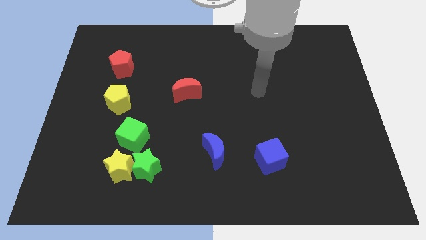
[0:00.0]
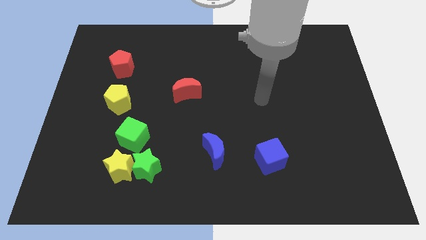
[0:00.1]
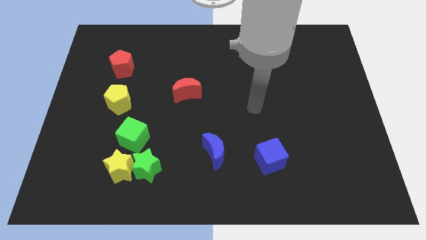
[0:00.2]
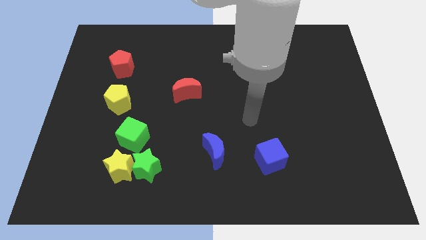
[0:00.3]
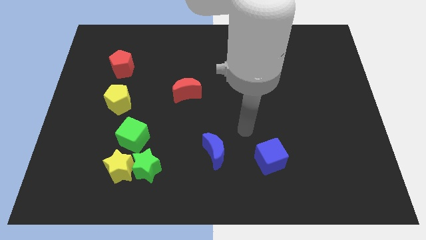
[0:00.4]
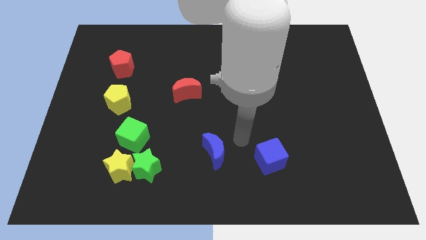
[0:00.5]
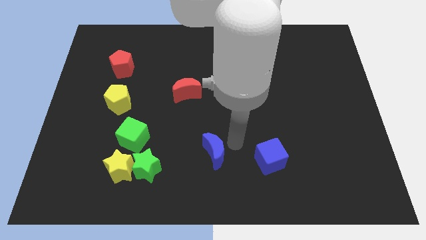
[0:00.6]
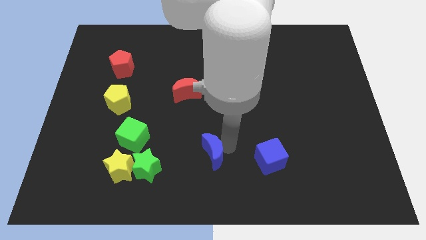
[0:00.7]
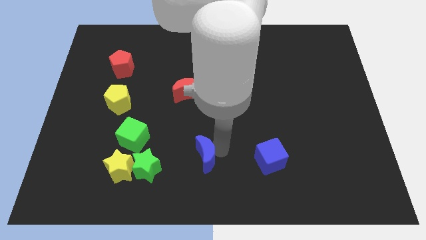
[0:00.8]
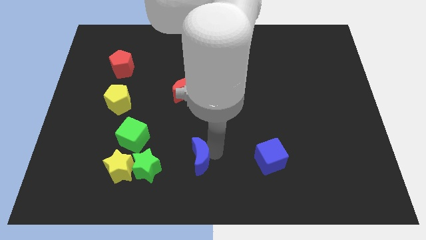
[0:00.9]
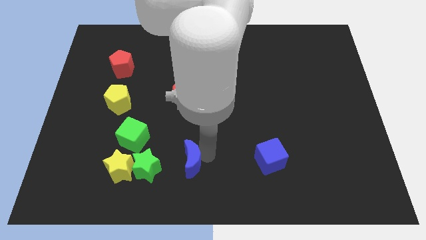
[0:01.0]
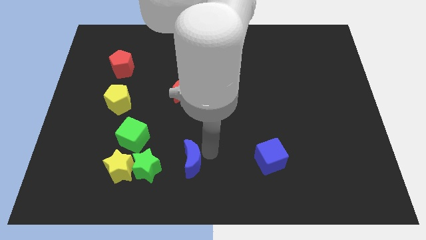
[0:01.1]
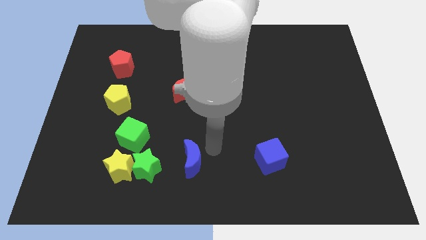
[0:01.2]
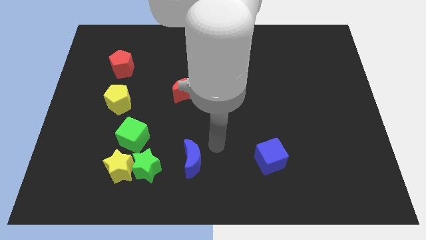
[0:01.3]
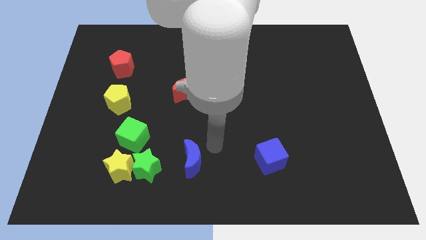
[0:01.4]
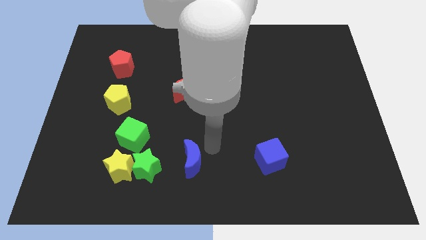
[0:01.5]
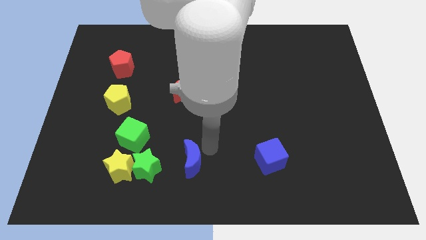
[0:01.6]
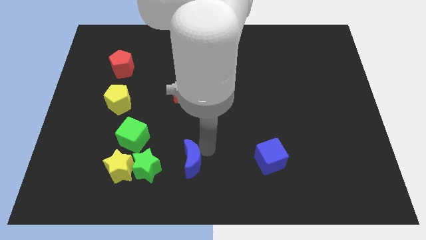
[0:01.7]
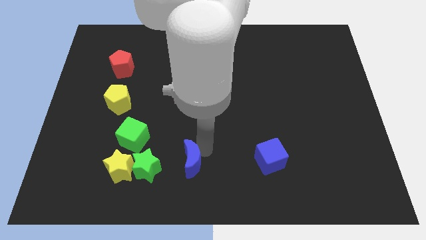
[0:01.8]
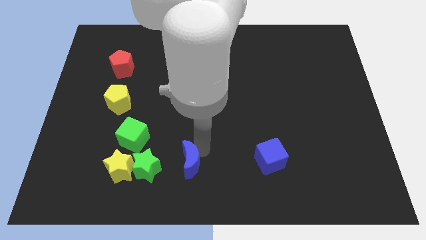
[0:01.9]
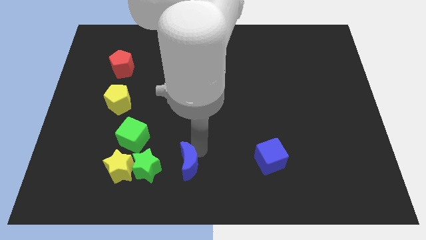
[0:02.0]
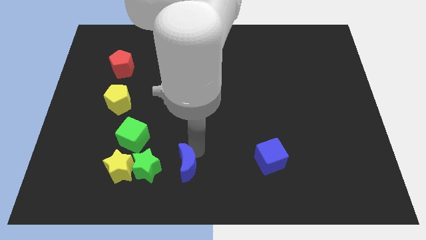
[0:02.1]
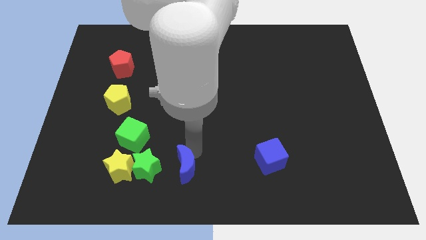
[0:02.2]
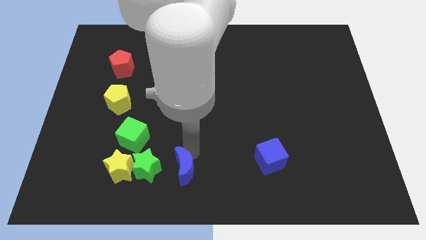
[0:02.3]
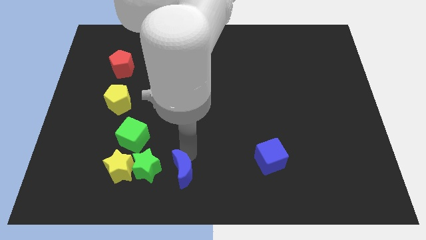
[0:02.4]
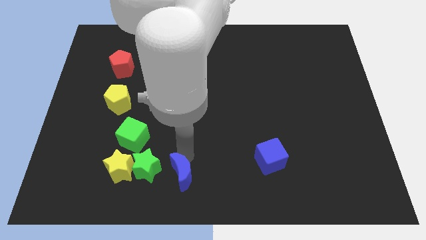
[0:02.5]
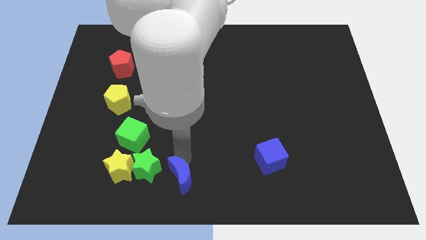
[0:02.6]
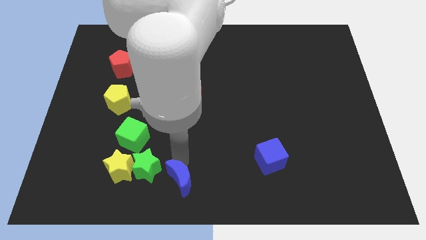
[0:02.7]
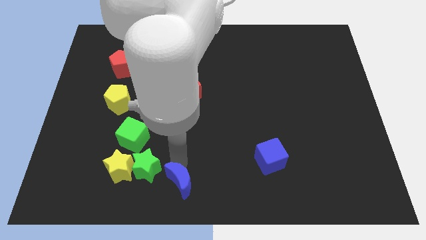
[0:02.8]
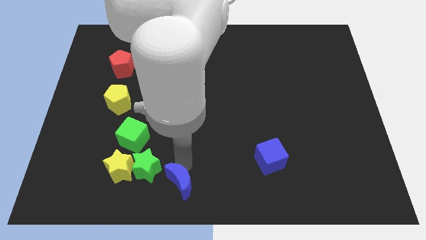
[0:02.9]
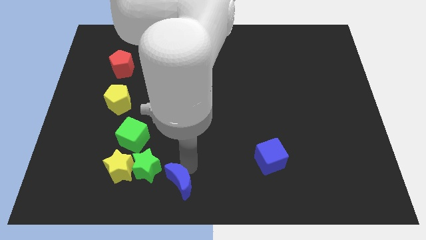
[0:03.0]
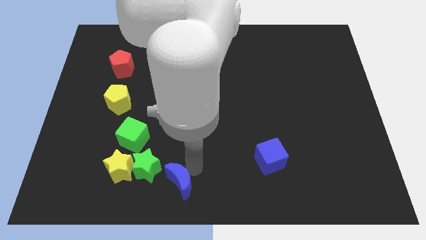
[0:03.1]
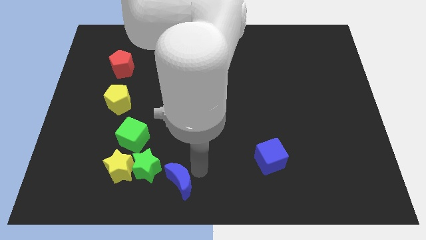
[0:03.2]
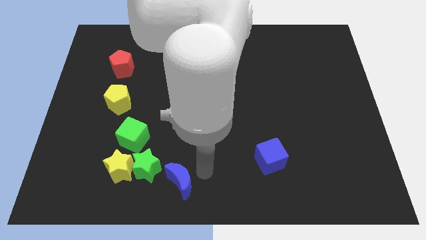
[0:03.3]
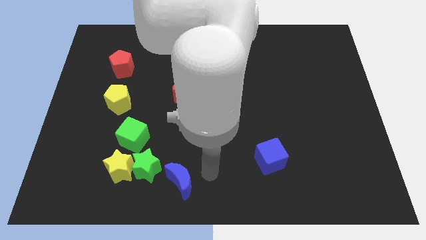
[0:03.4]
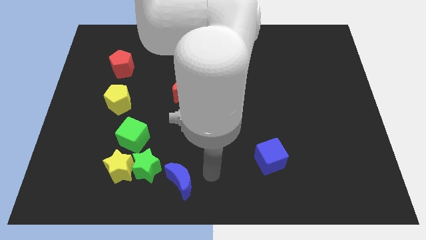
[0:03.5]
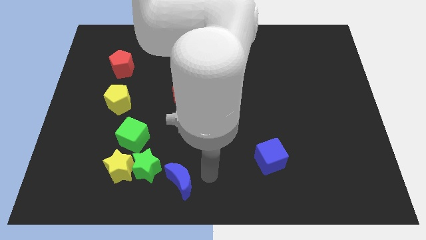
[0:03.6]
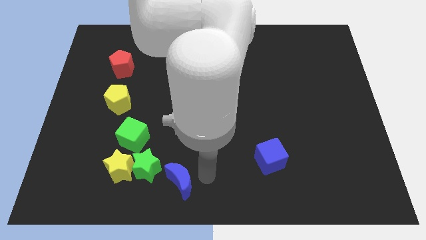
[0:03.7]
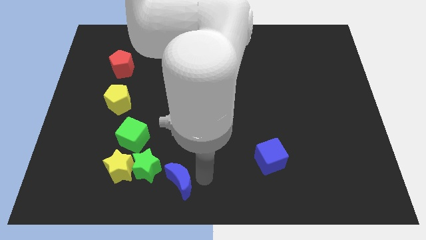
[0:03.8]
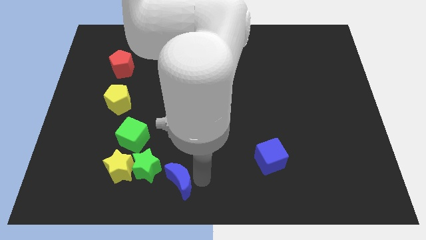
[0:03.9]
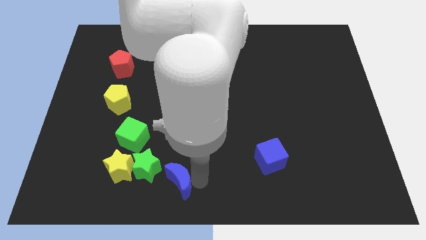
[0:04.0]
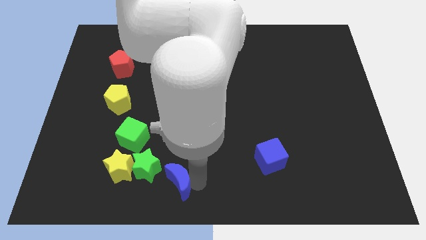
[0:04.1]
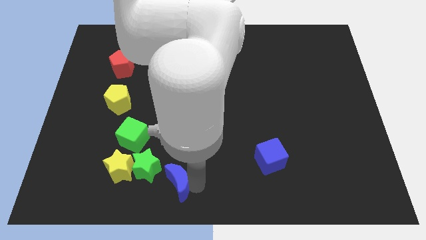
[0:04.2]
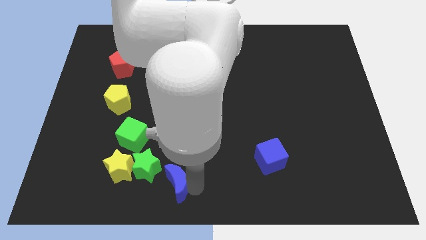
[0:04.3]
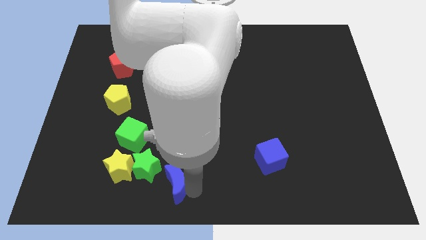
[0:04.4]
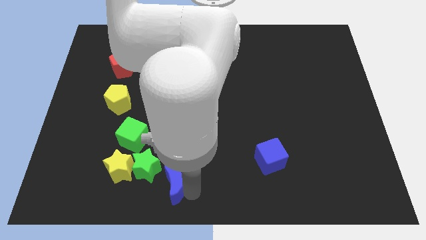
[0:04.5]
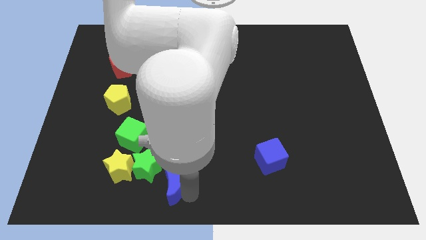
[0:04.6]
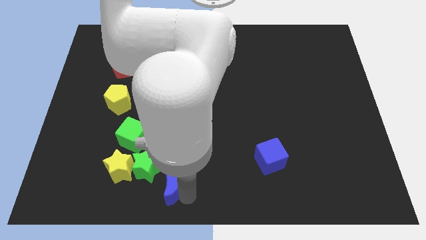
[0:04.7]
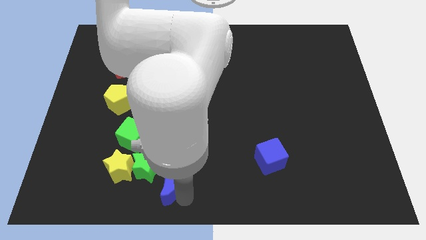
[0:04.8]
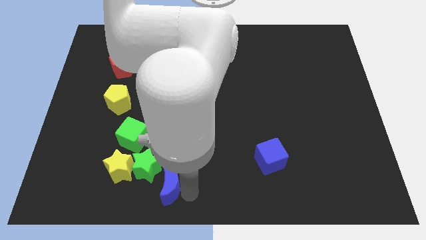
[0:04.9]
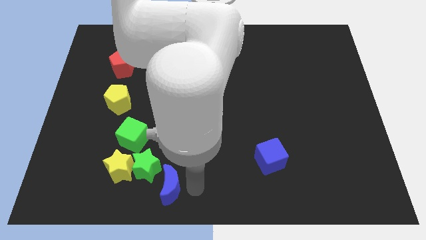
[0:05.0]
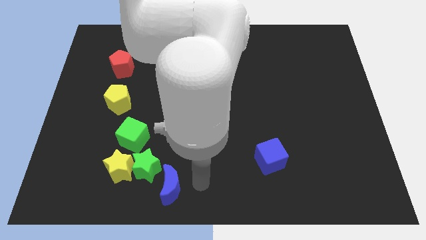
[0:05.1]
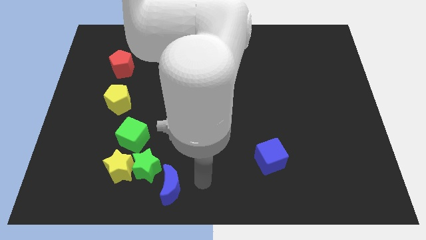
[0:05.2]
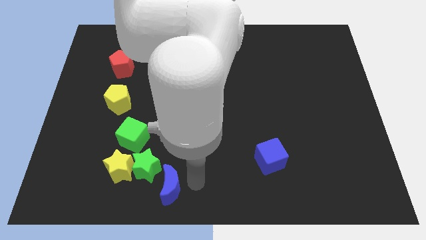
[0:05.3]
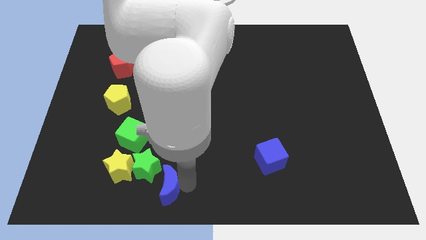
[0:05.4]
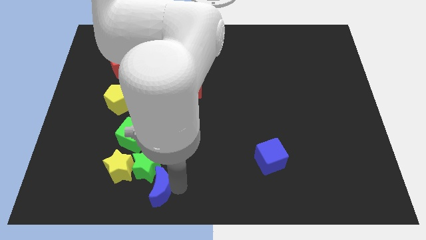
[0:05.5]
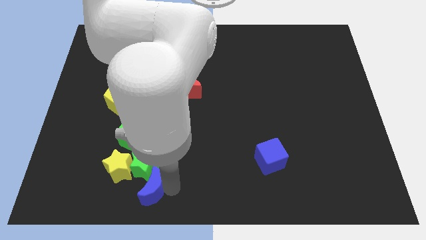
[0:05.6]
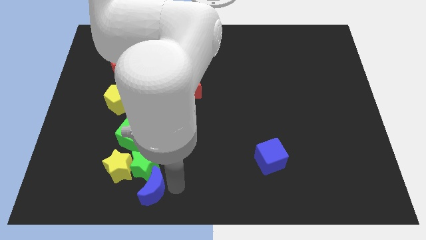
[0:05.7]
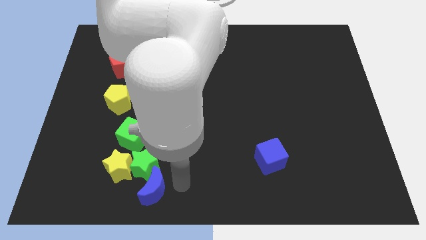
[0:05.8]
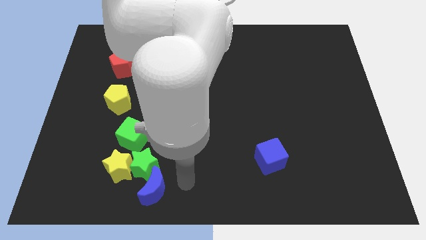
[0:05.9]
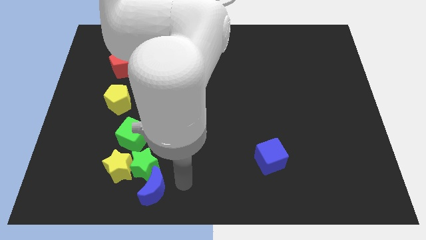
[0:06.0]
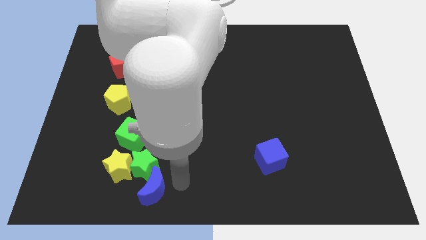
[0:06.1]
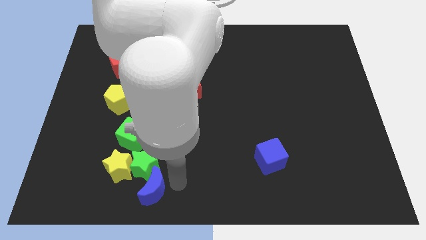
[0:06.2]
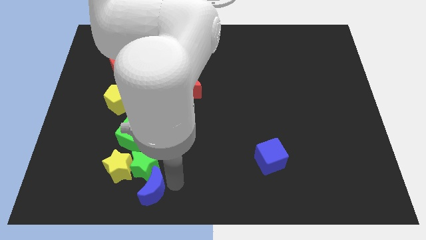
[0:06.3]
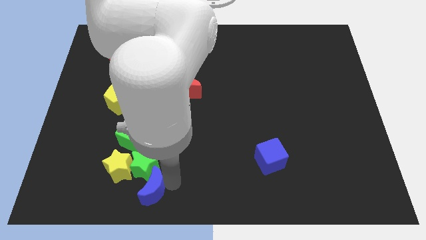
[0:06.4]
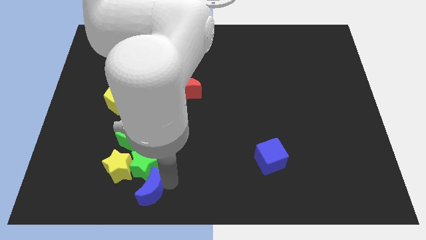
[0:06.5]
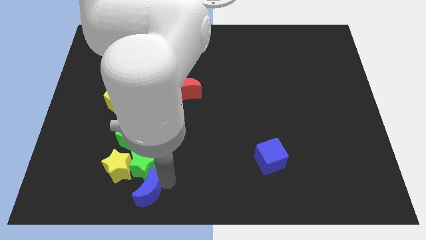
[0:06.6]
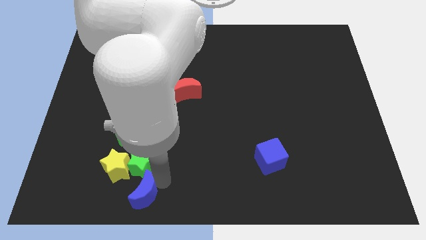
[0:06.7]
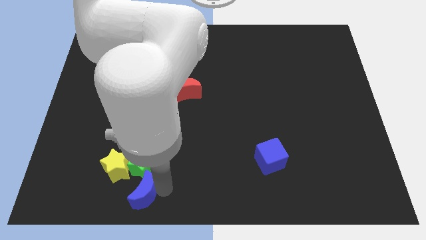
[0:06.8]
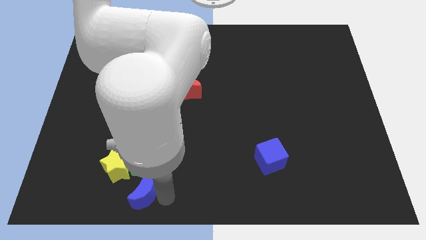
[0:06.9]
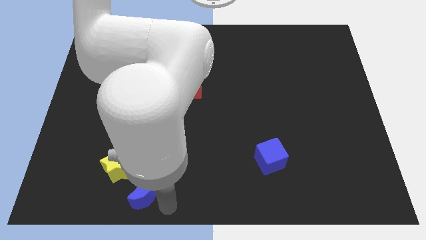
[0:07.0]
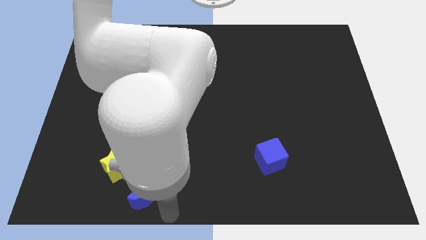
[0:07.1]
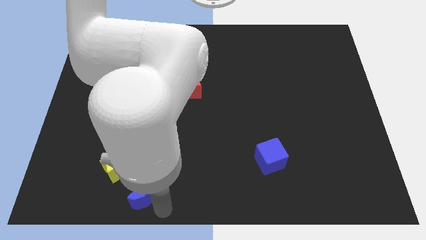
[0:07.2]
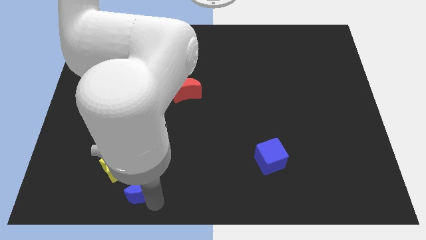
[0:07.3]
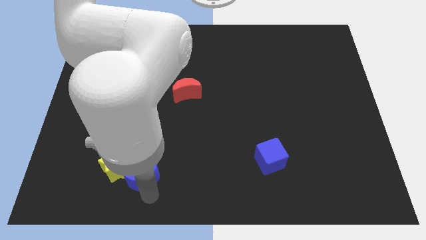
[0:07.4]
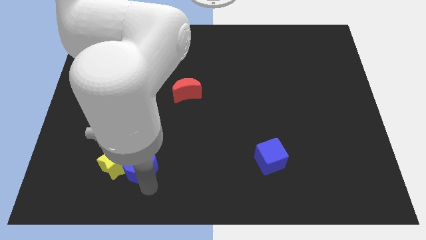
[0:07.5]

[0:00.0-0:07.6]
move the blue moon to the yellow star
